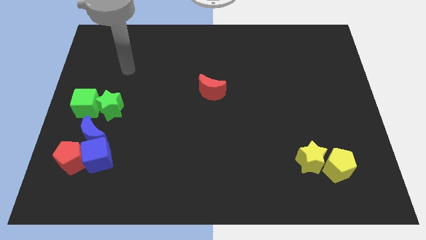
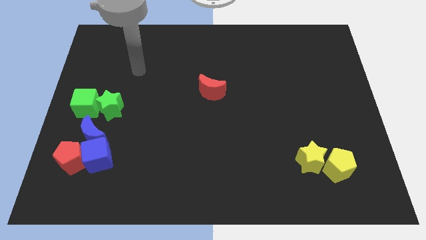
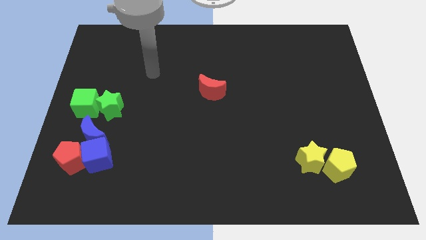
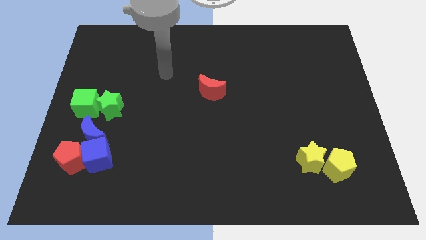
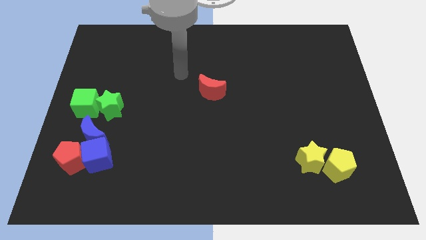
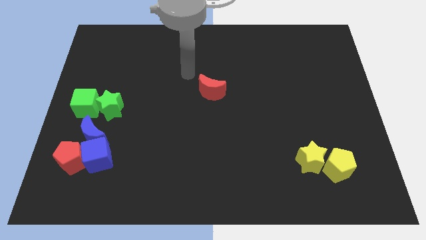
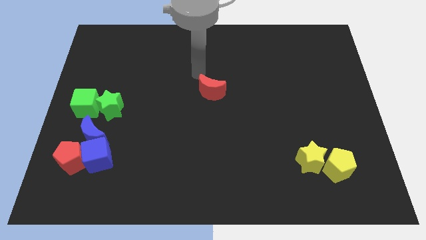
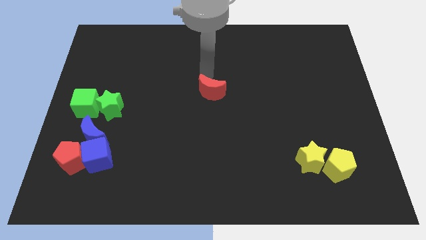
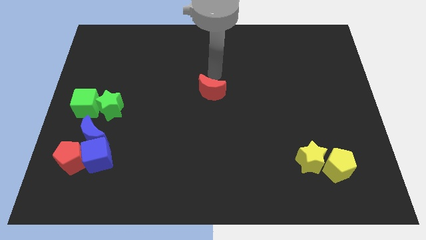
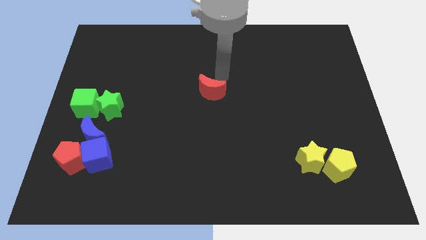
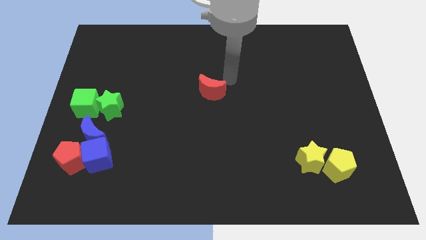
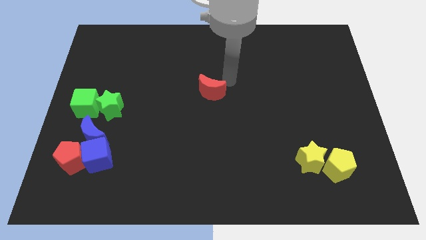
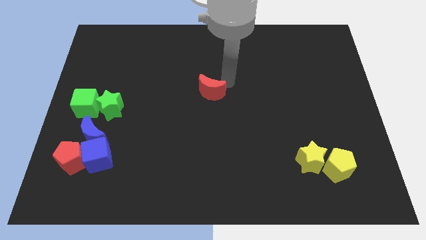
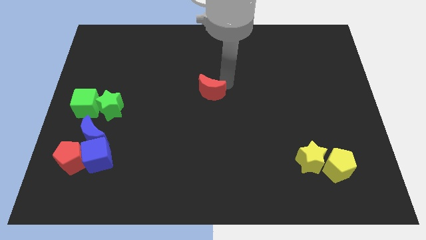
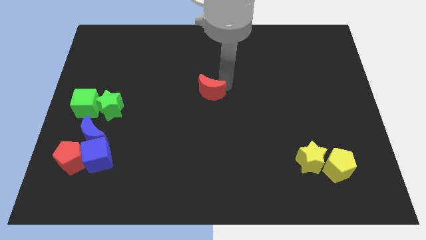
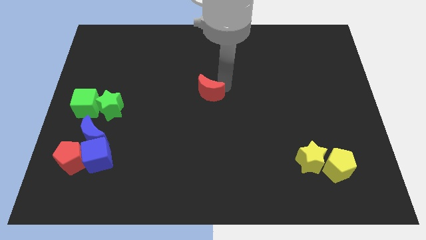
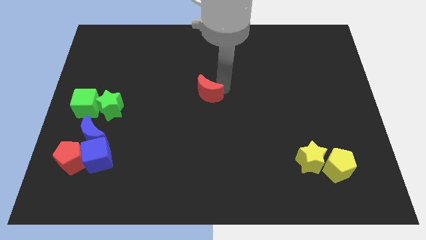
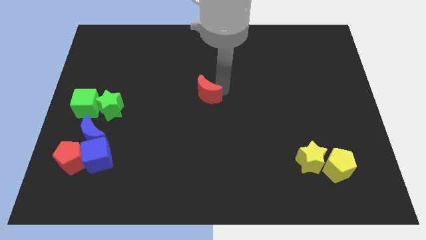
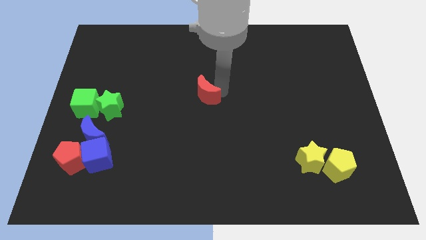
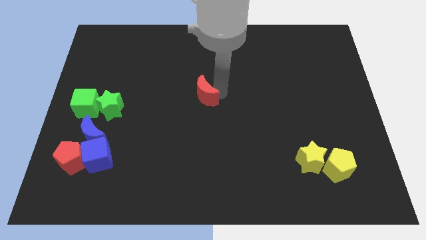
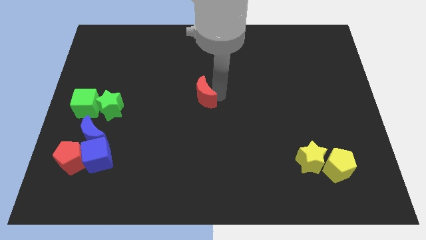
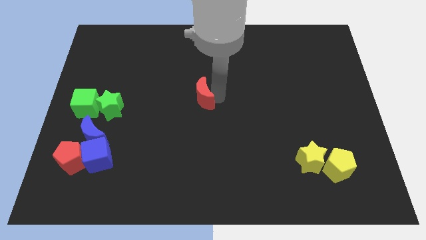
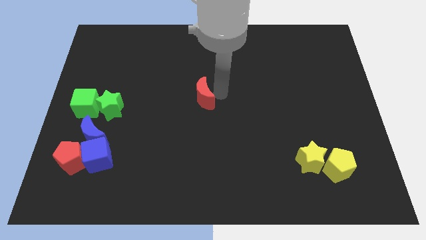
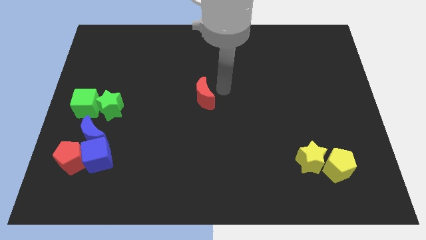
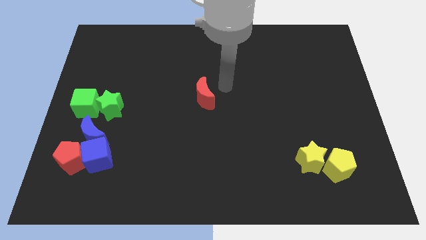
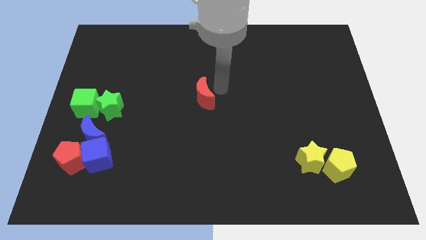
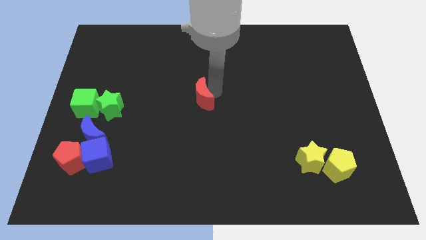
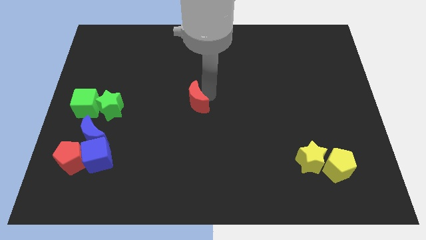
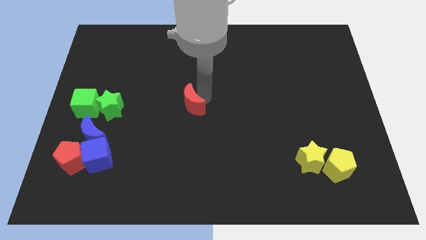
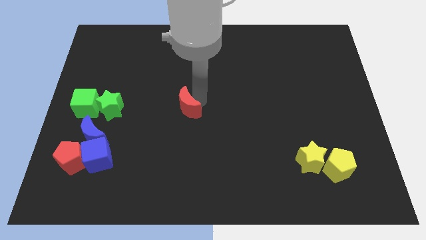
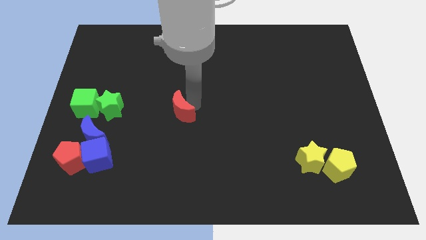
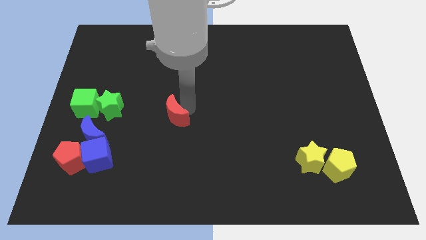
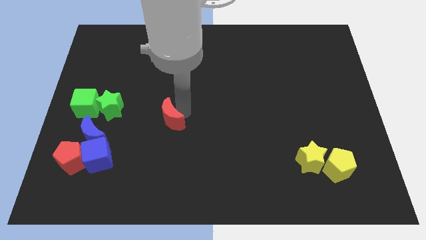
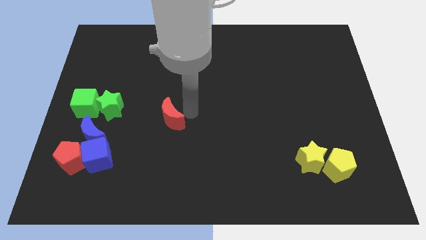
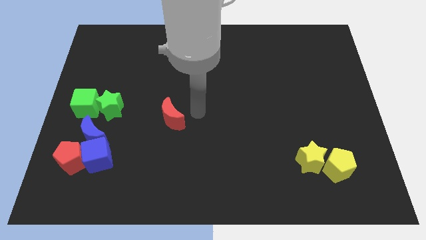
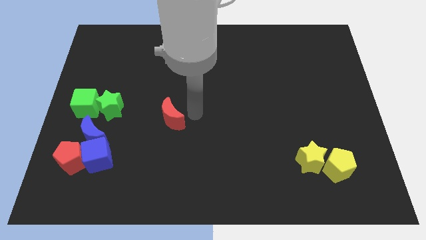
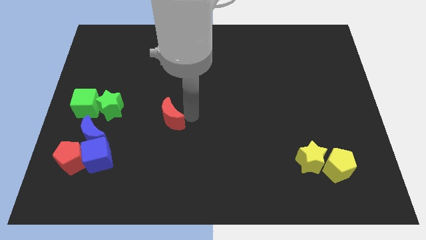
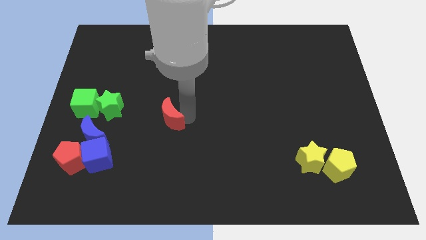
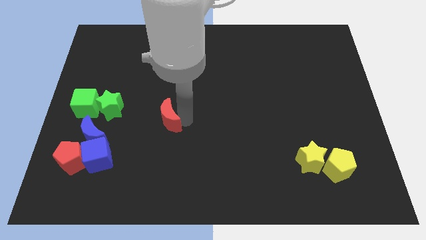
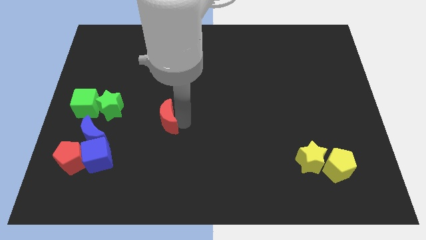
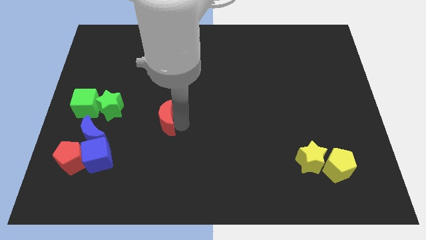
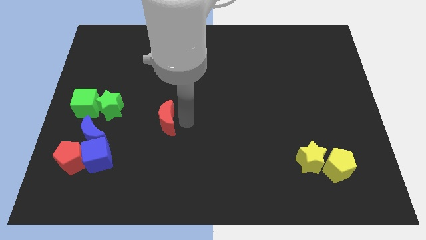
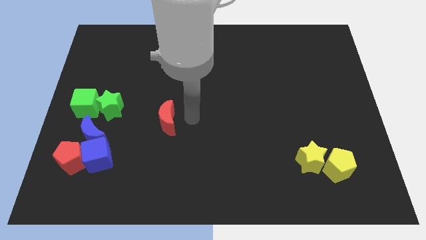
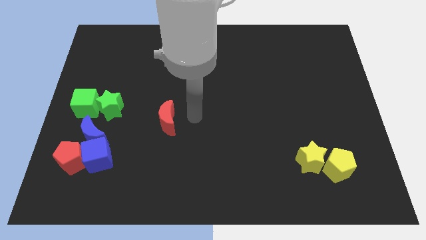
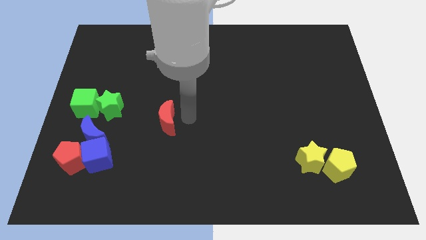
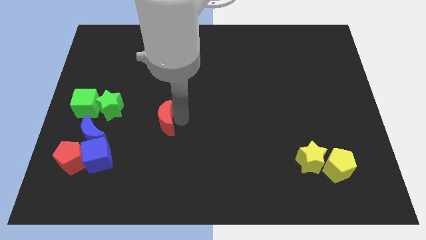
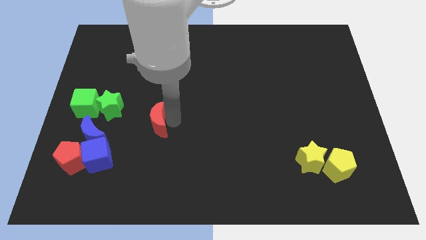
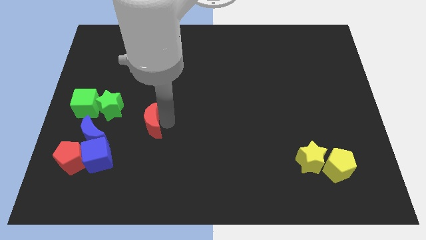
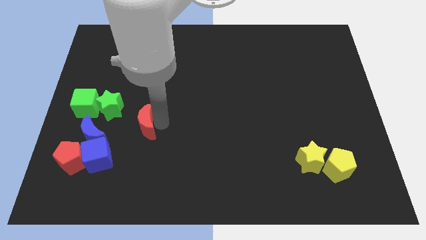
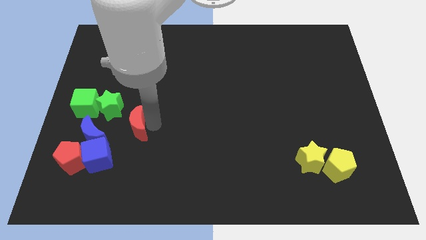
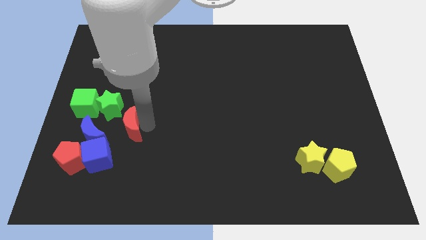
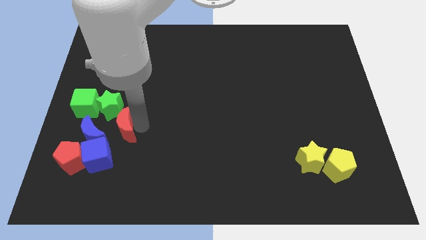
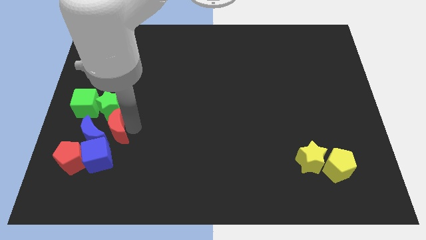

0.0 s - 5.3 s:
move the red moon towards the blue moon

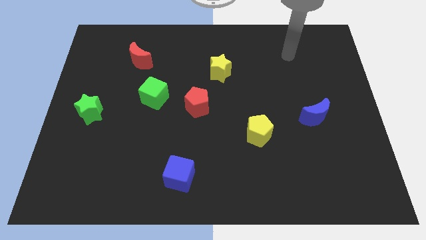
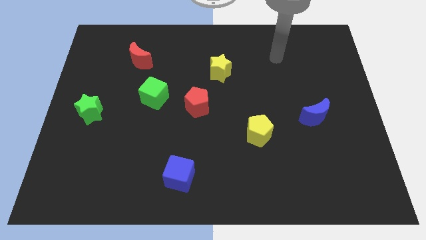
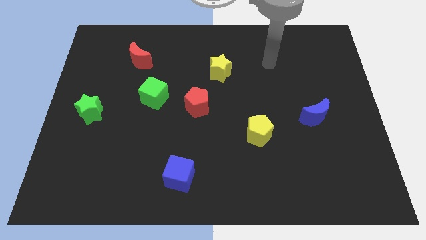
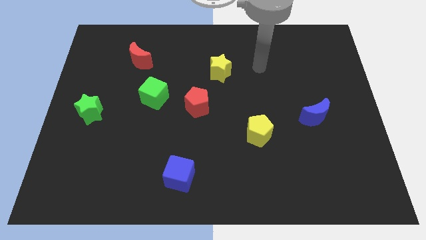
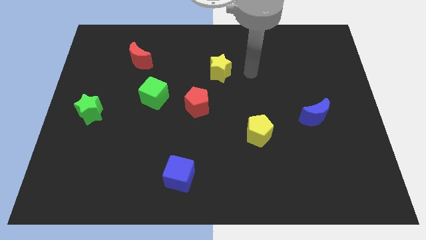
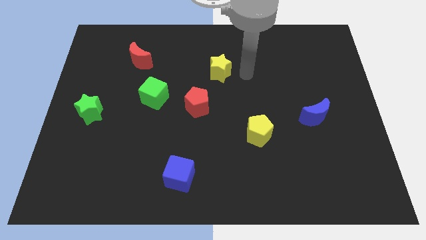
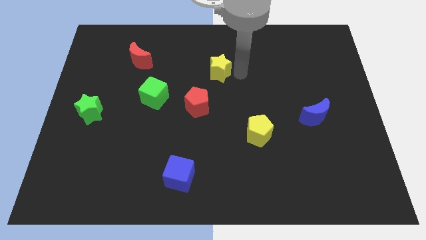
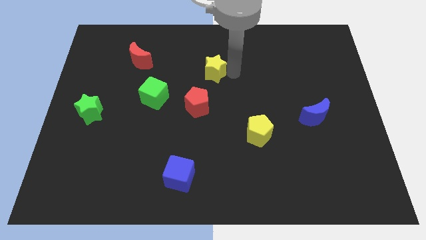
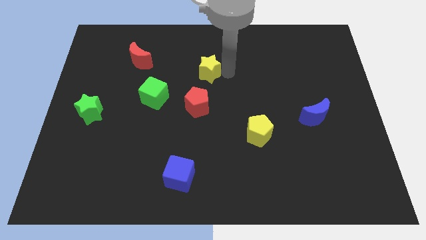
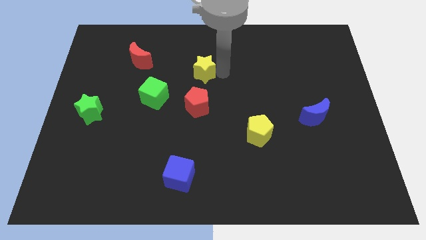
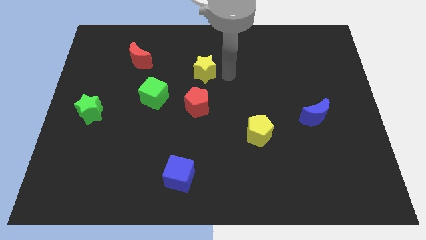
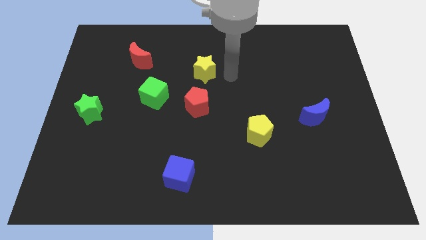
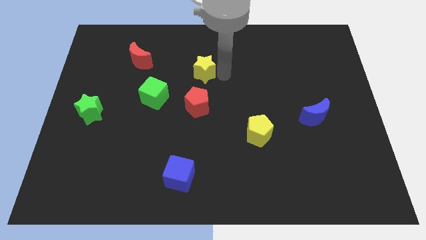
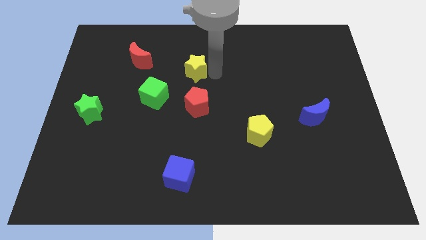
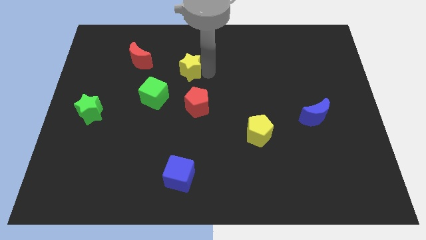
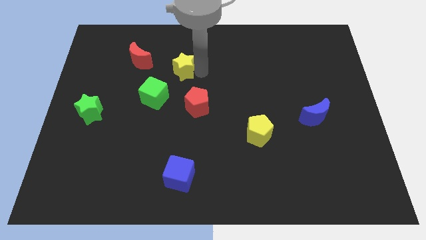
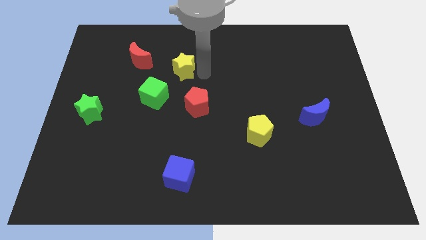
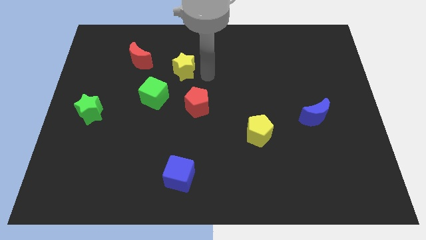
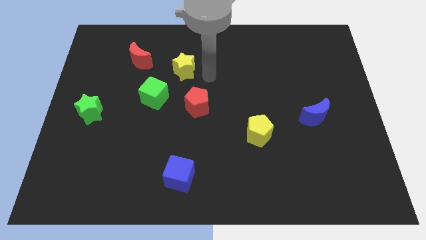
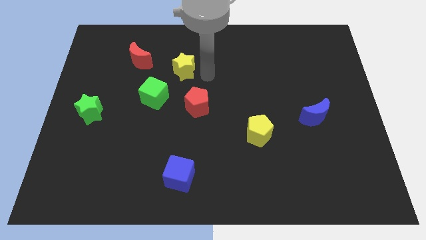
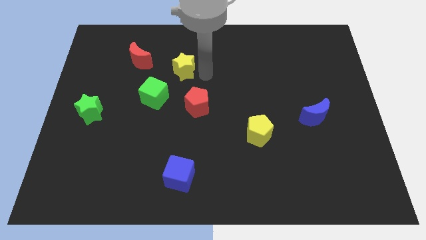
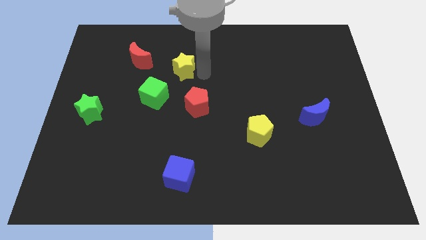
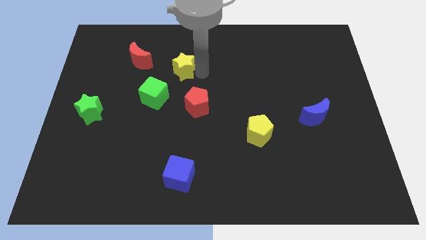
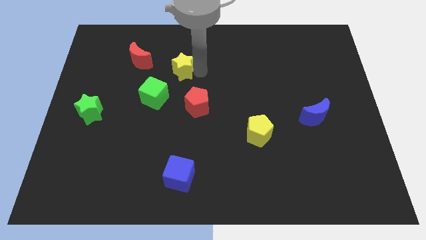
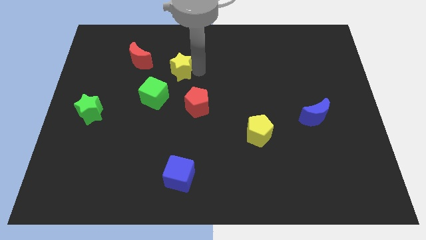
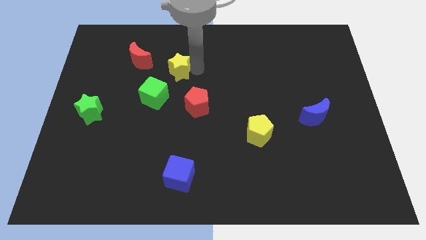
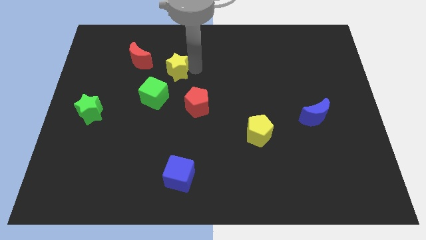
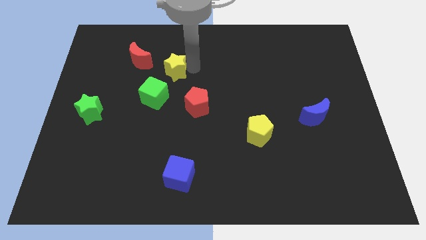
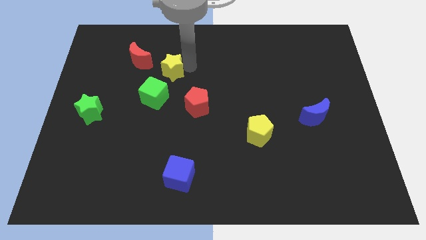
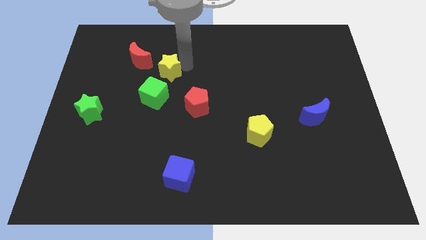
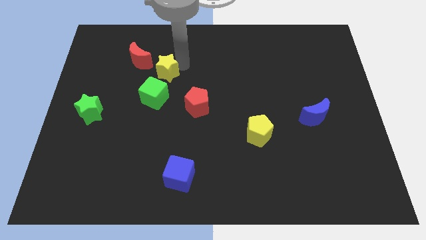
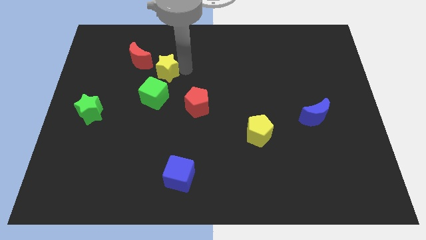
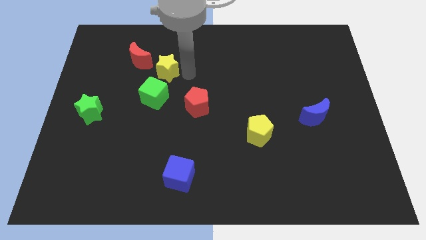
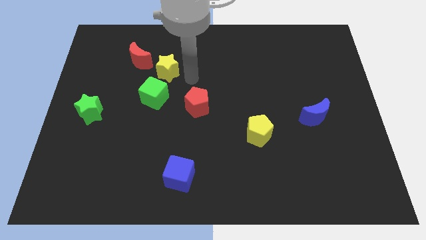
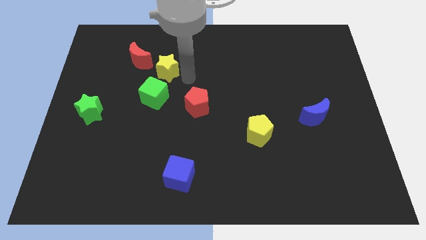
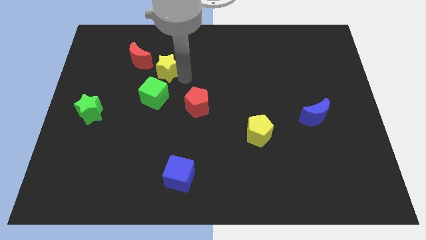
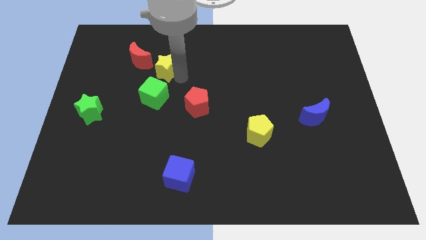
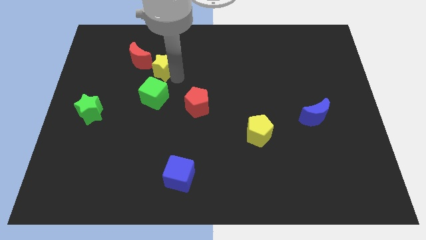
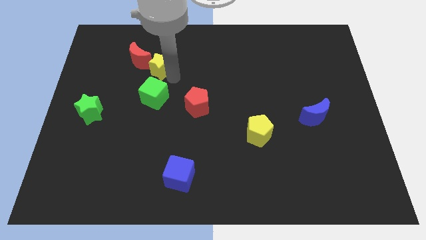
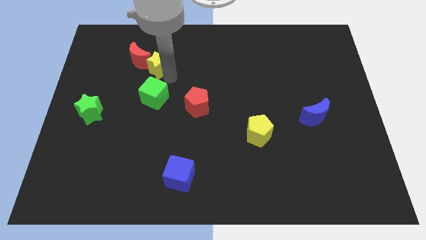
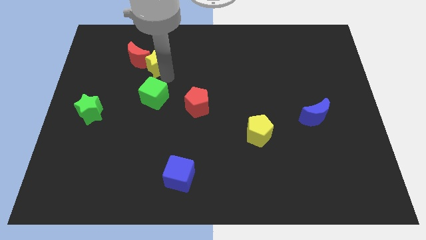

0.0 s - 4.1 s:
put the yellow star to the red moon
